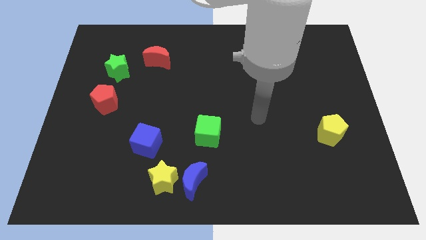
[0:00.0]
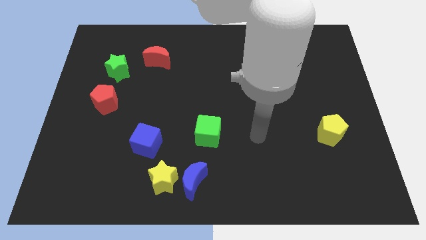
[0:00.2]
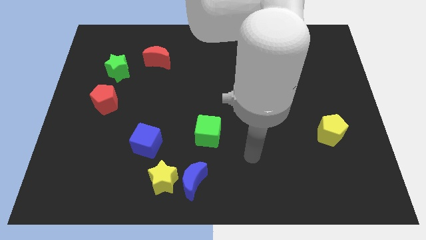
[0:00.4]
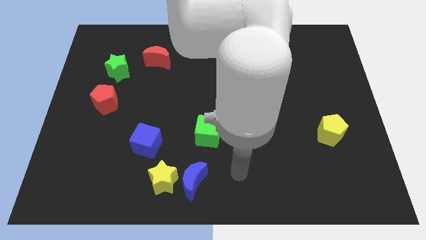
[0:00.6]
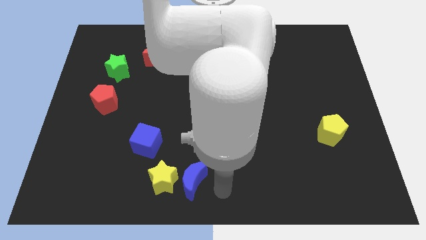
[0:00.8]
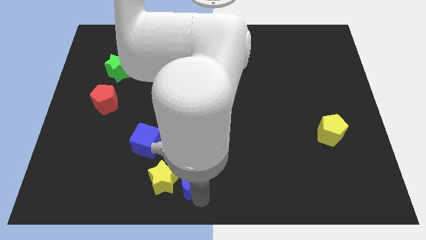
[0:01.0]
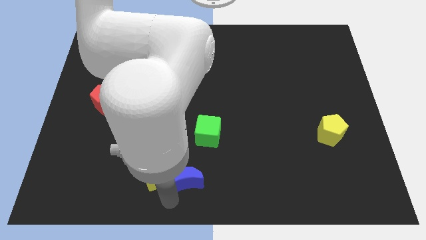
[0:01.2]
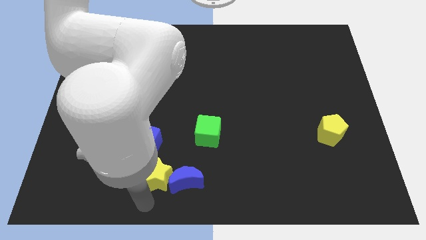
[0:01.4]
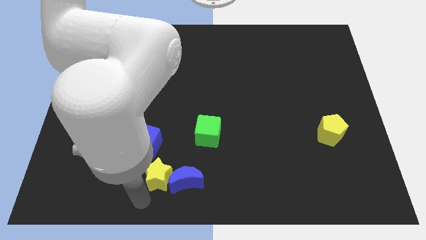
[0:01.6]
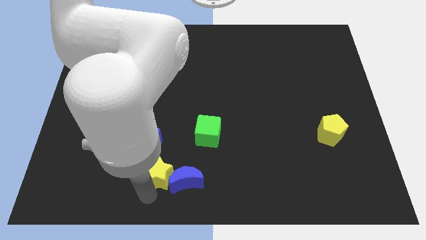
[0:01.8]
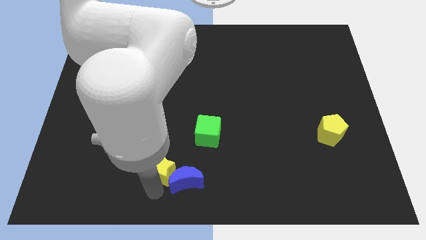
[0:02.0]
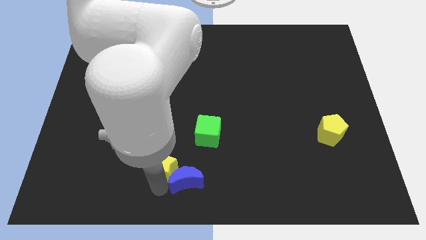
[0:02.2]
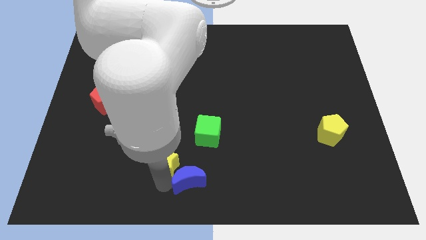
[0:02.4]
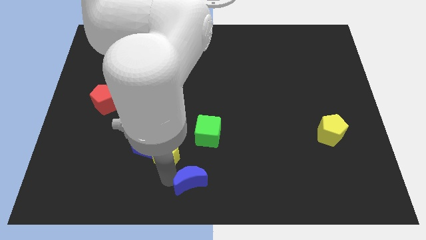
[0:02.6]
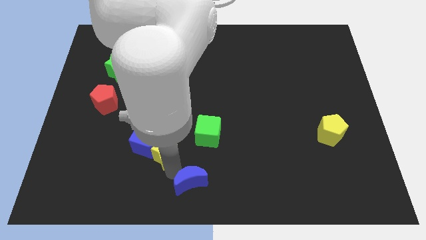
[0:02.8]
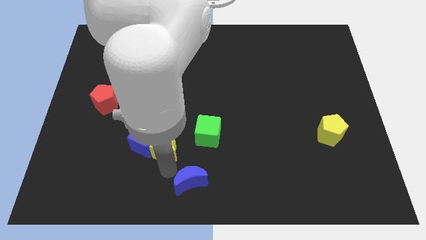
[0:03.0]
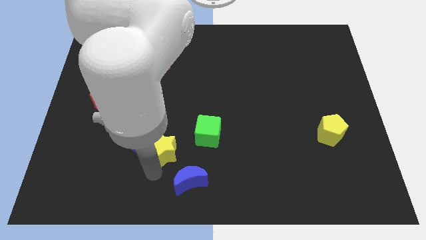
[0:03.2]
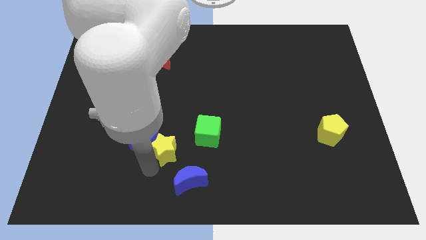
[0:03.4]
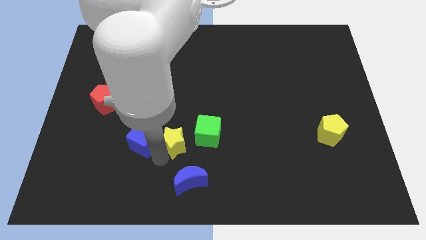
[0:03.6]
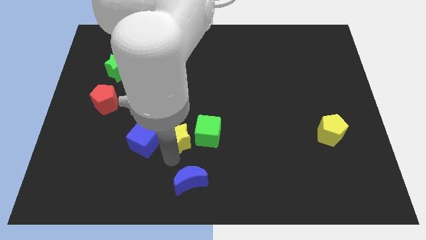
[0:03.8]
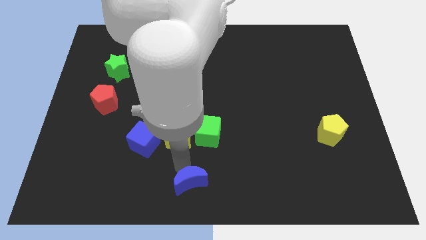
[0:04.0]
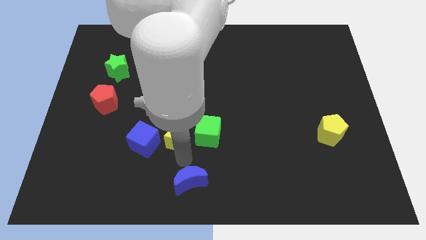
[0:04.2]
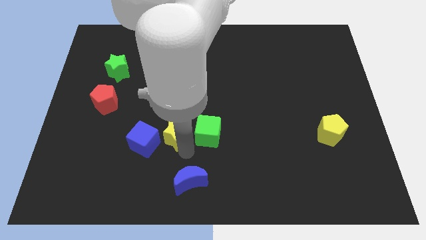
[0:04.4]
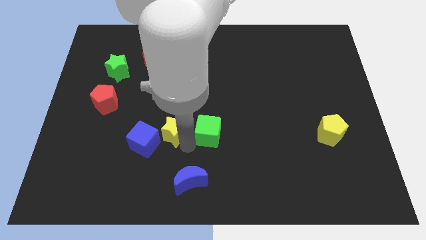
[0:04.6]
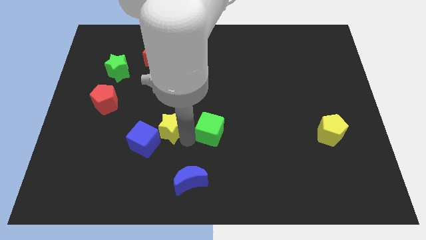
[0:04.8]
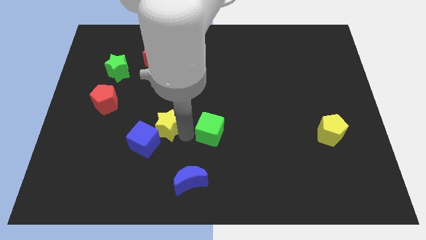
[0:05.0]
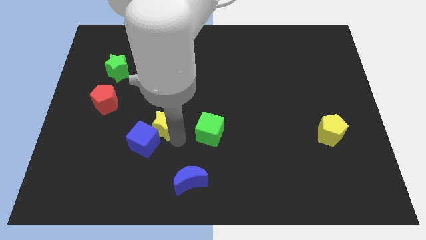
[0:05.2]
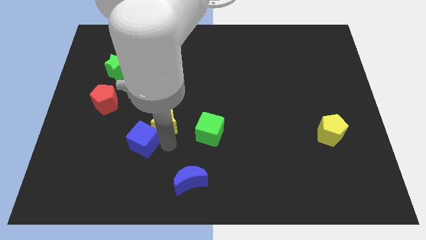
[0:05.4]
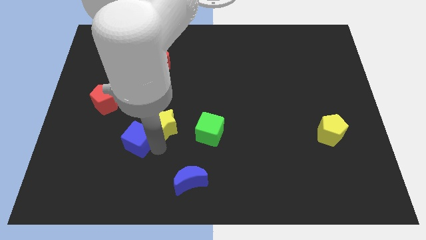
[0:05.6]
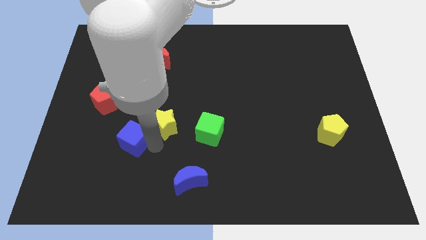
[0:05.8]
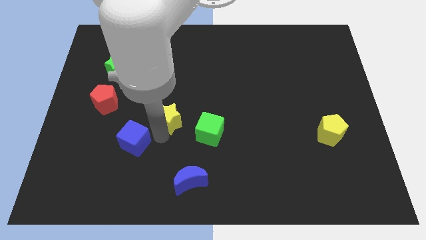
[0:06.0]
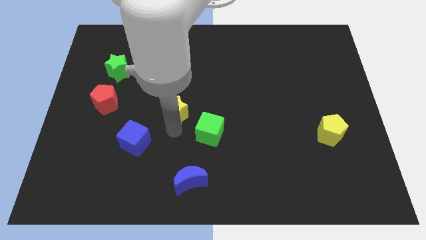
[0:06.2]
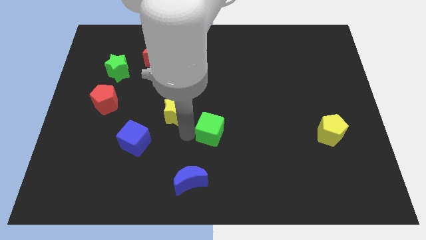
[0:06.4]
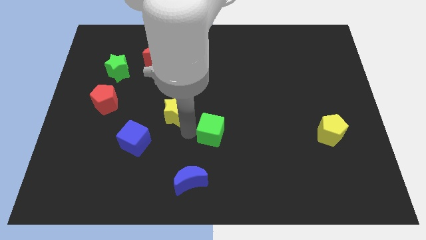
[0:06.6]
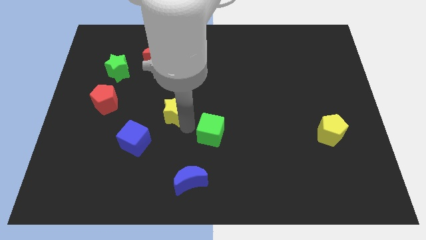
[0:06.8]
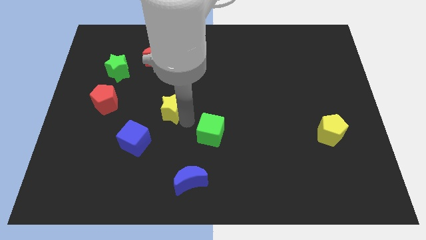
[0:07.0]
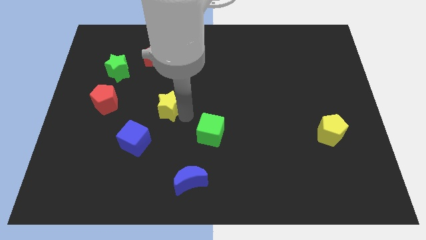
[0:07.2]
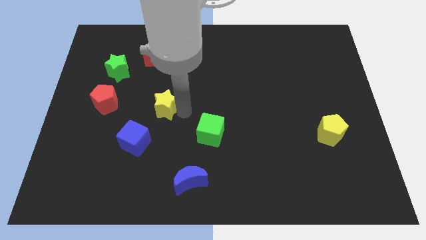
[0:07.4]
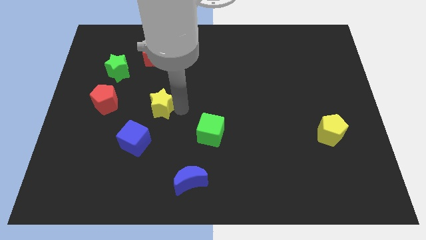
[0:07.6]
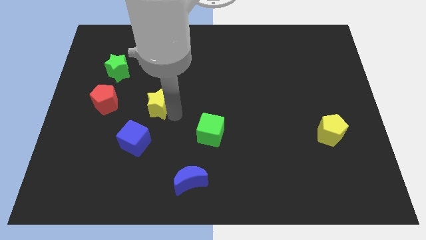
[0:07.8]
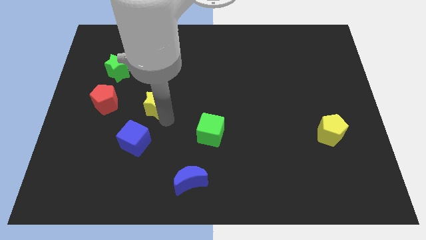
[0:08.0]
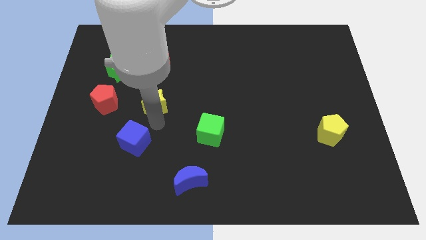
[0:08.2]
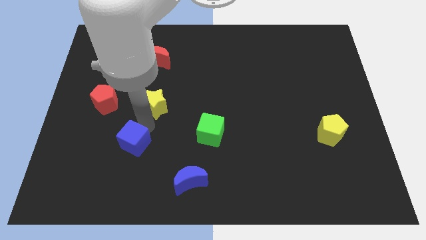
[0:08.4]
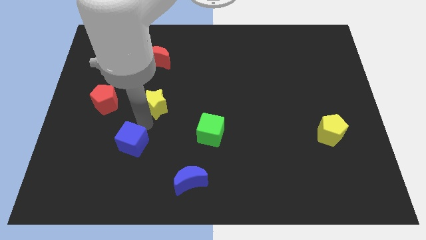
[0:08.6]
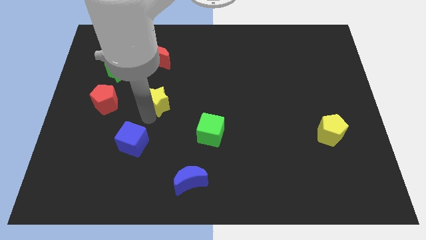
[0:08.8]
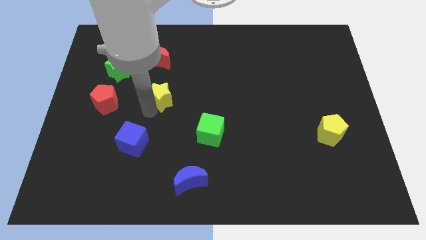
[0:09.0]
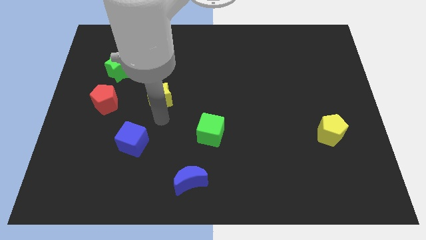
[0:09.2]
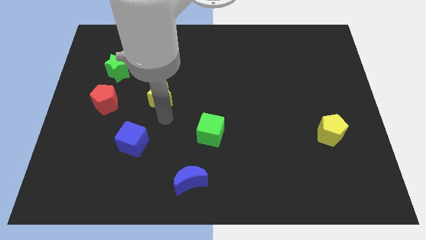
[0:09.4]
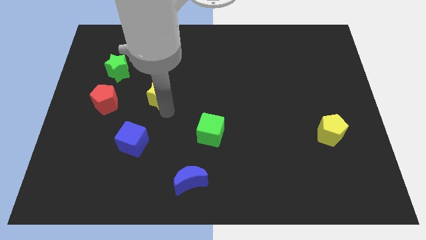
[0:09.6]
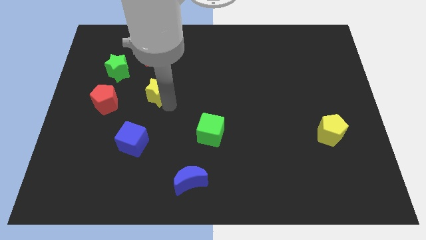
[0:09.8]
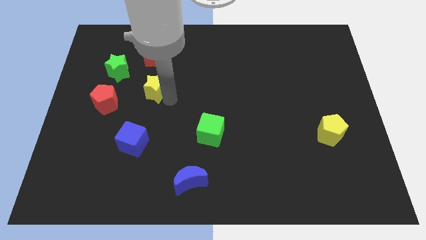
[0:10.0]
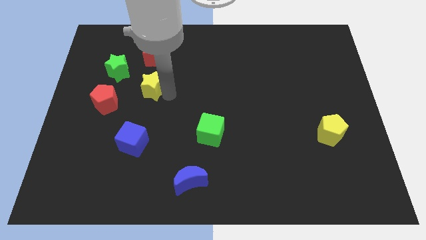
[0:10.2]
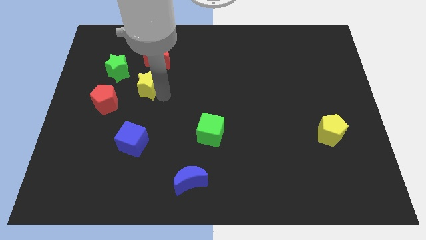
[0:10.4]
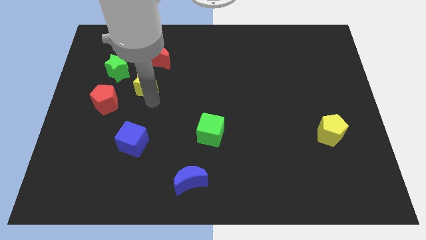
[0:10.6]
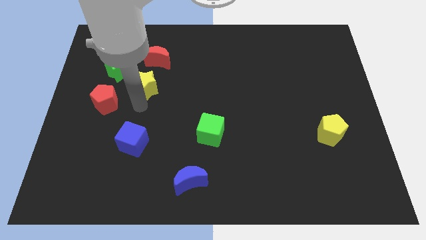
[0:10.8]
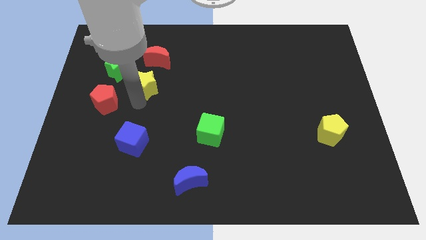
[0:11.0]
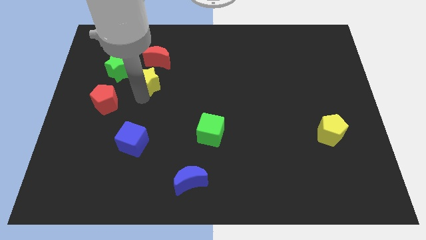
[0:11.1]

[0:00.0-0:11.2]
push the yellow star just right of the green star

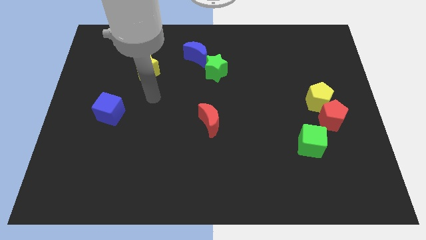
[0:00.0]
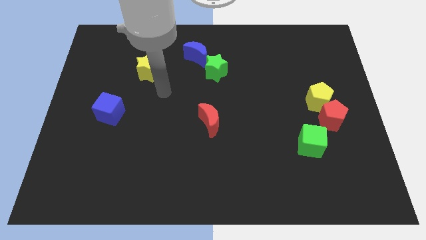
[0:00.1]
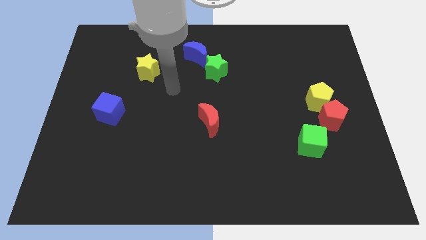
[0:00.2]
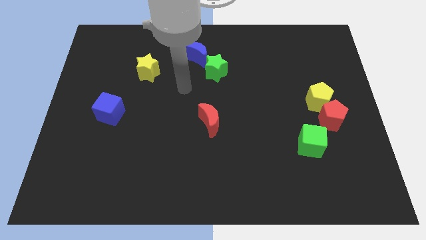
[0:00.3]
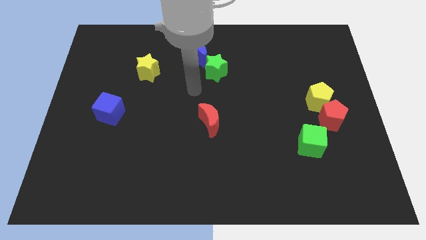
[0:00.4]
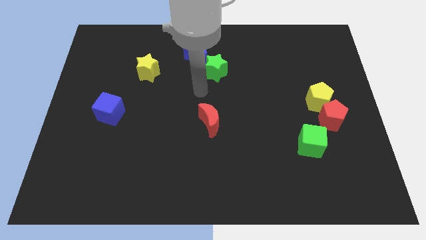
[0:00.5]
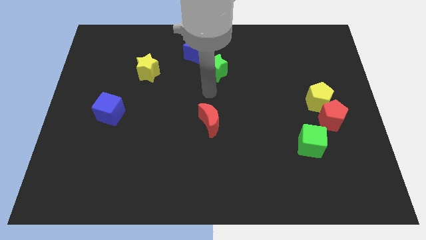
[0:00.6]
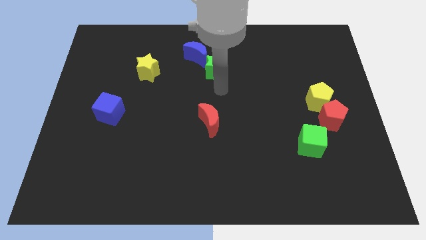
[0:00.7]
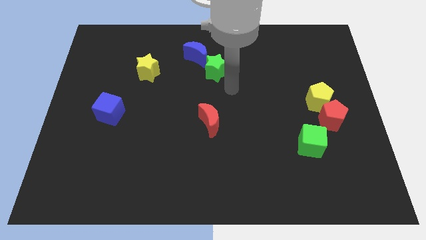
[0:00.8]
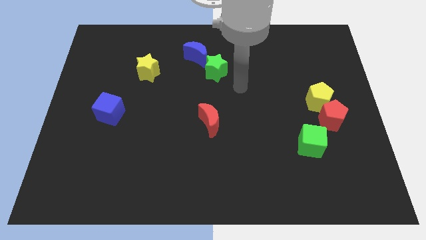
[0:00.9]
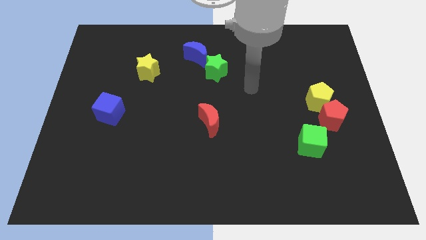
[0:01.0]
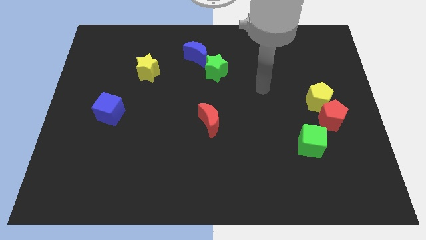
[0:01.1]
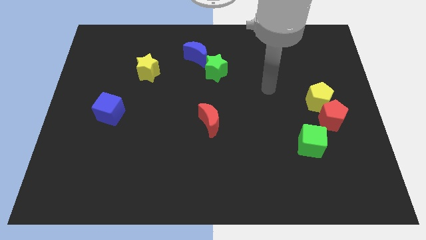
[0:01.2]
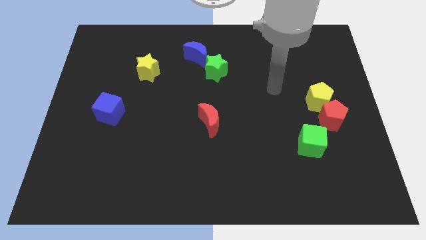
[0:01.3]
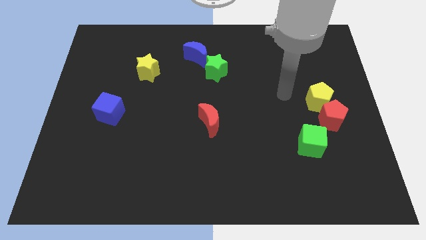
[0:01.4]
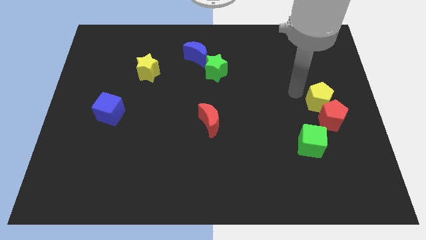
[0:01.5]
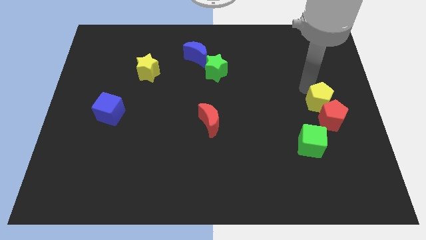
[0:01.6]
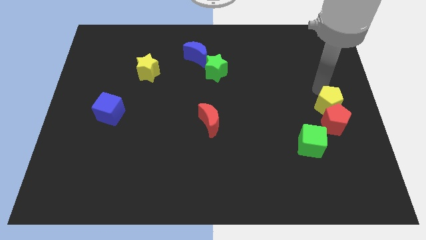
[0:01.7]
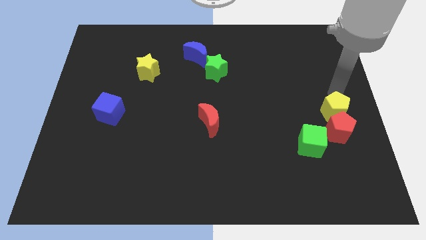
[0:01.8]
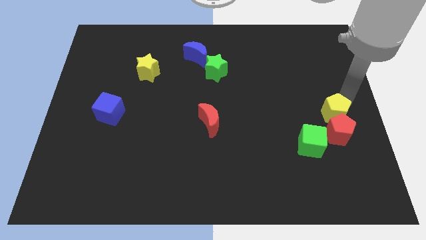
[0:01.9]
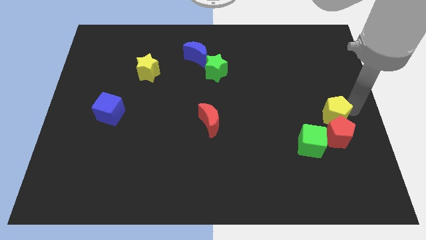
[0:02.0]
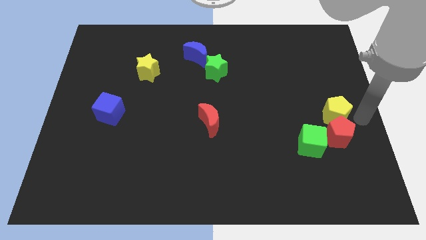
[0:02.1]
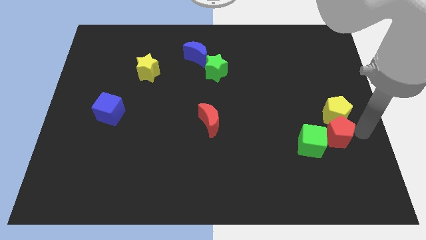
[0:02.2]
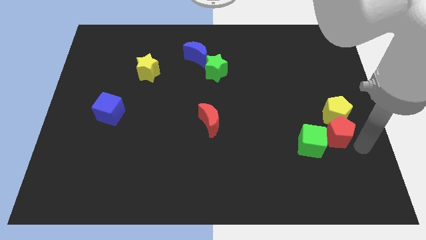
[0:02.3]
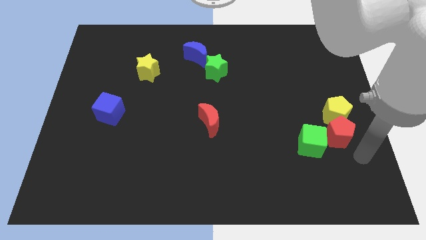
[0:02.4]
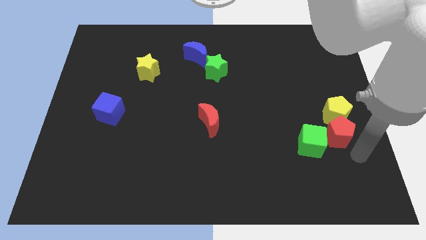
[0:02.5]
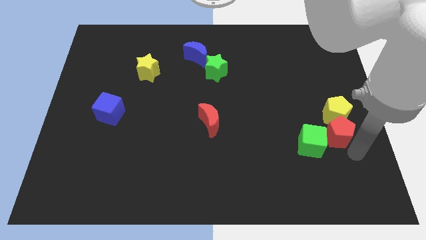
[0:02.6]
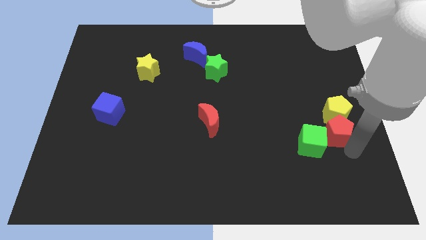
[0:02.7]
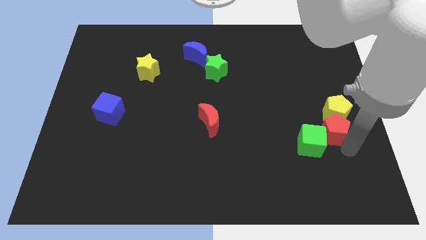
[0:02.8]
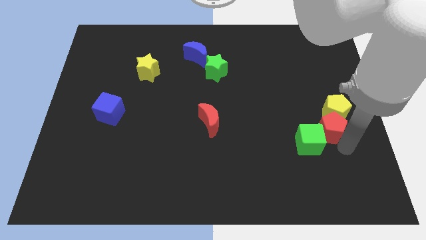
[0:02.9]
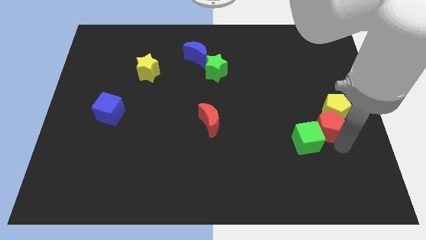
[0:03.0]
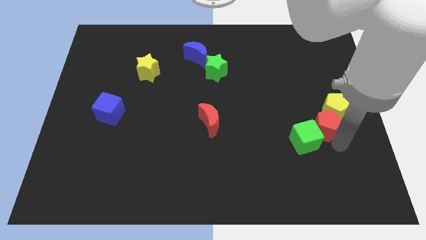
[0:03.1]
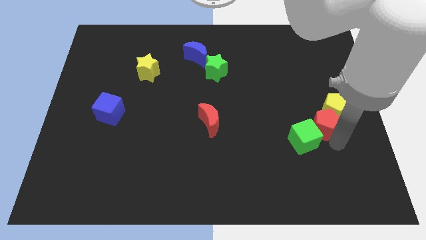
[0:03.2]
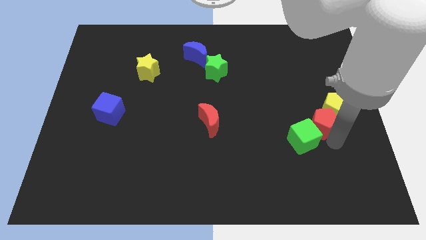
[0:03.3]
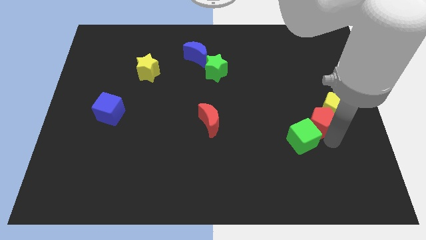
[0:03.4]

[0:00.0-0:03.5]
slide the red pentagon to the top side of the green cube
